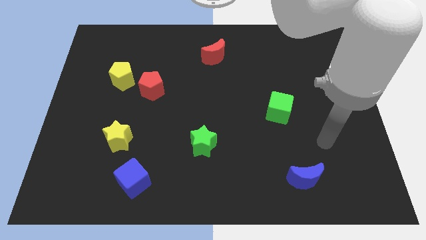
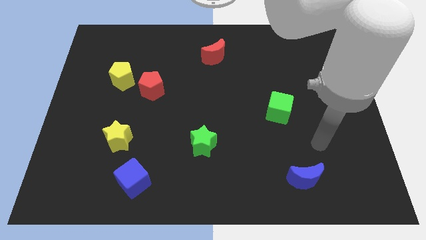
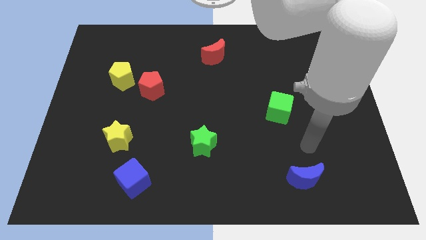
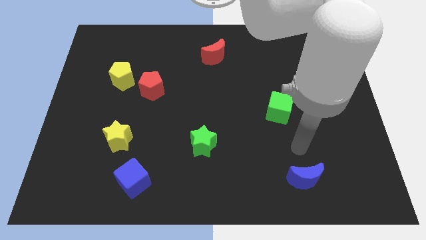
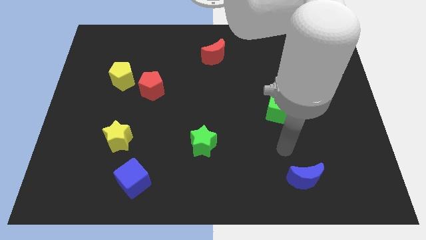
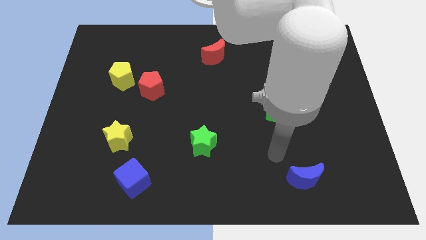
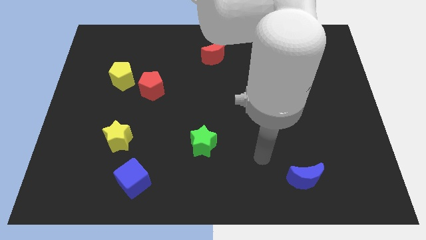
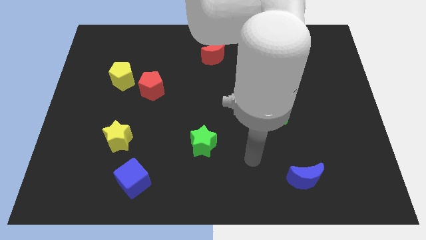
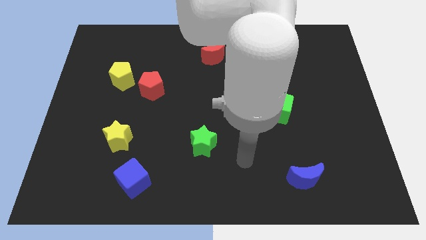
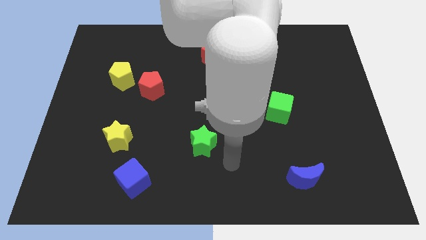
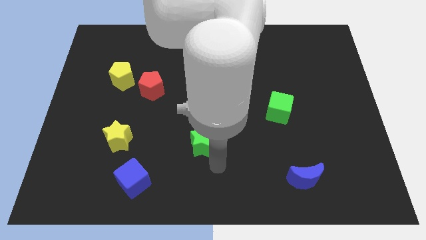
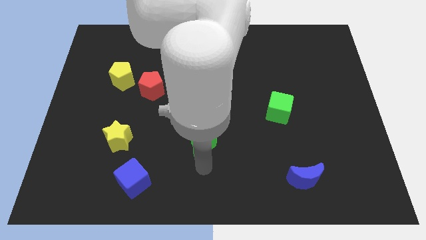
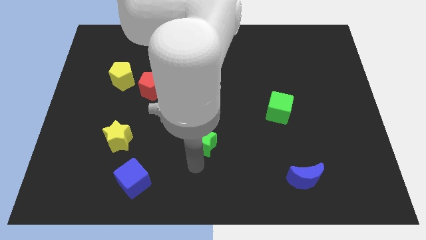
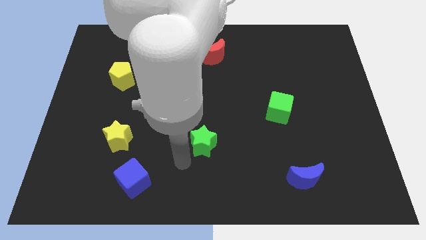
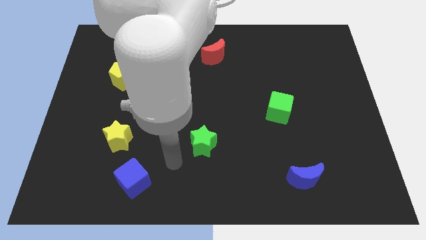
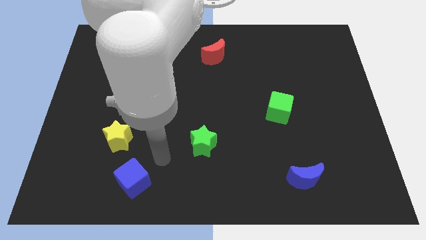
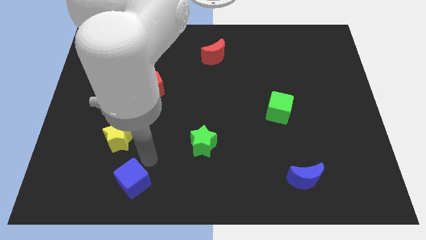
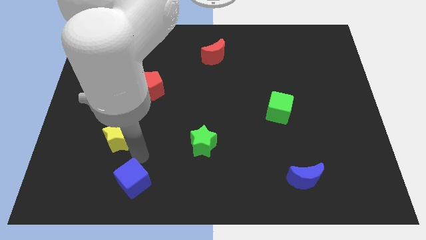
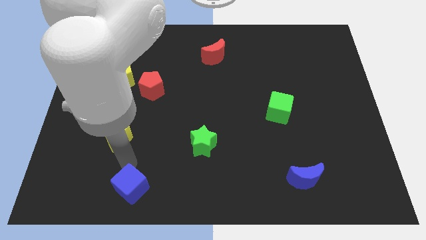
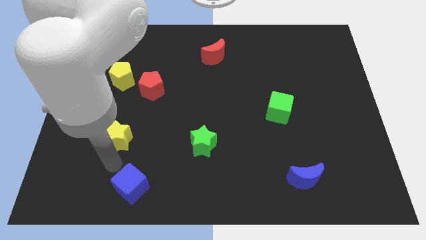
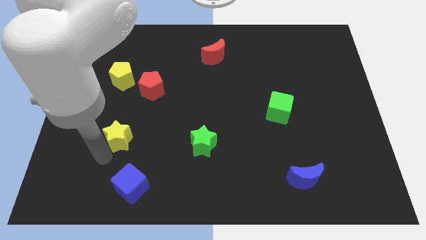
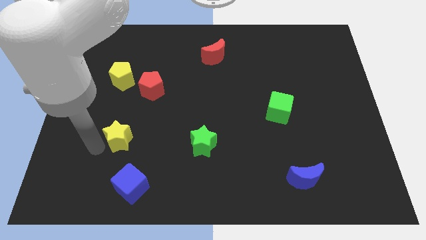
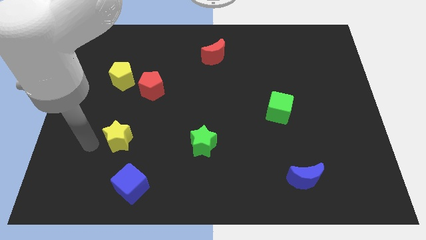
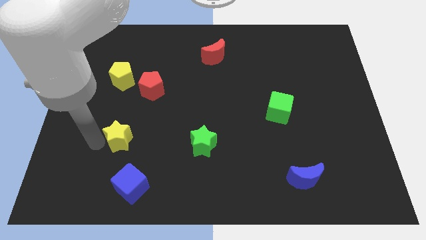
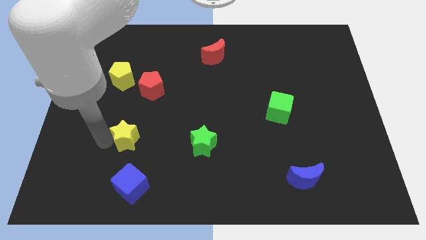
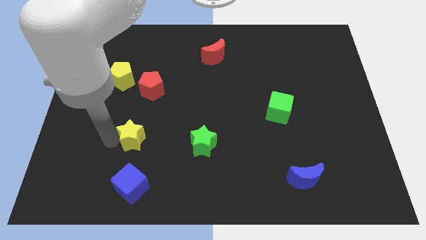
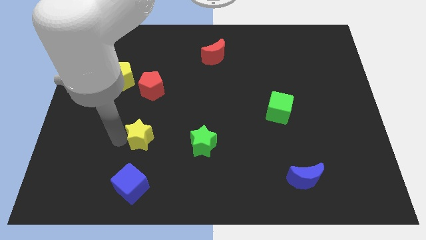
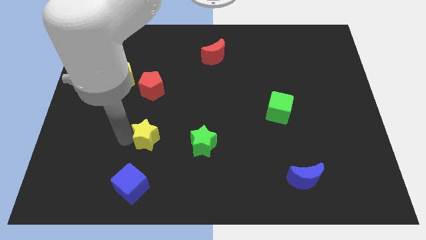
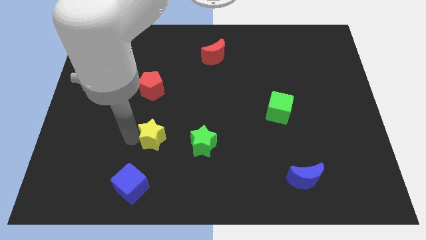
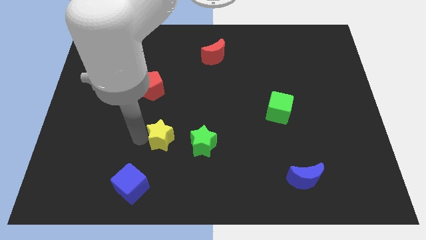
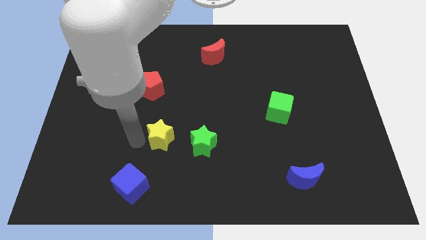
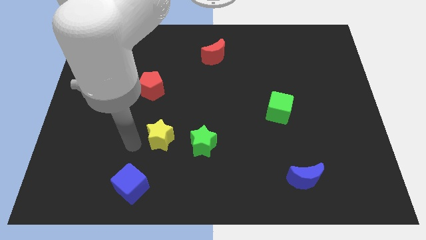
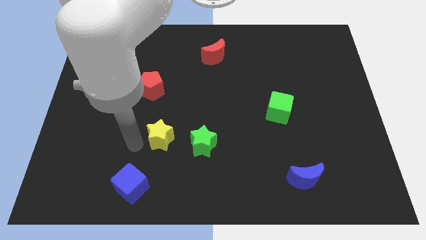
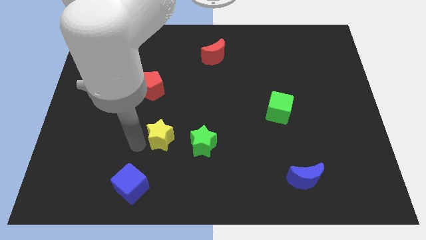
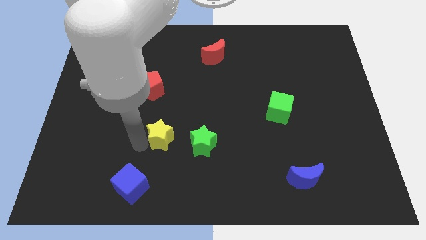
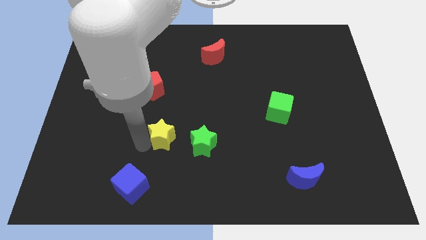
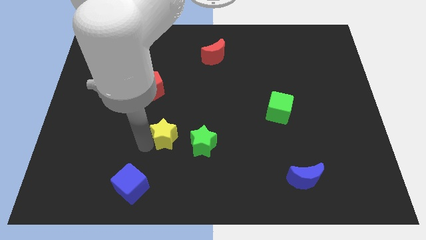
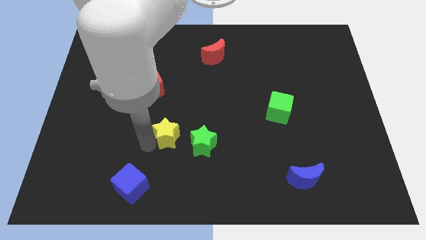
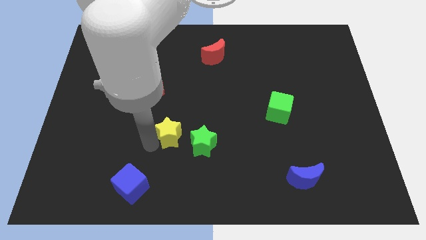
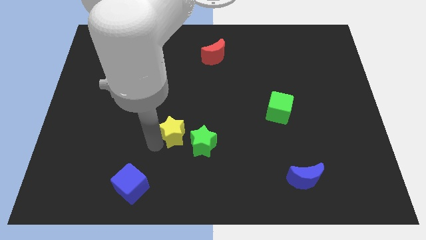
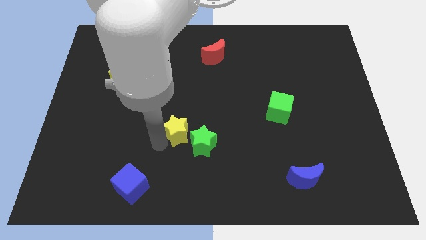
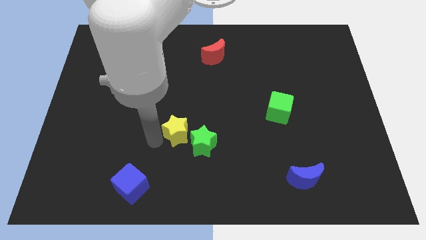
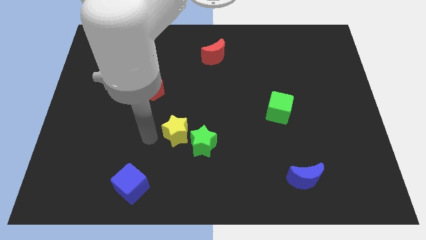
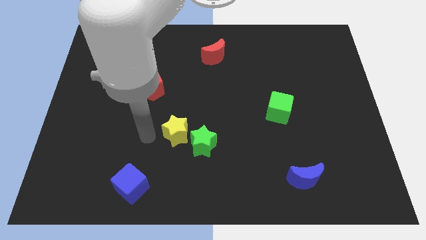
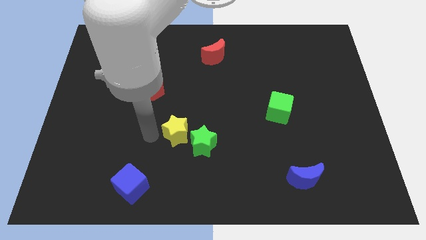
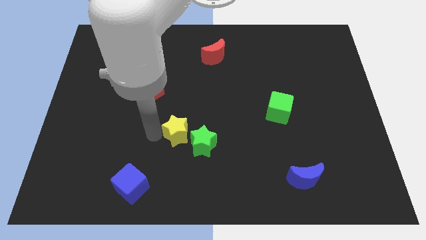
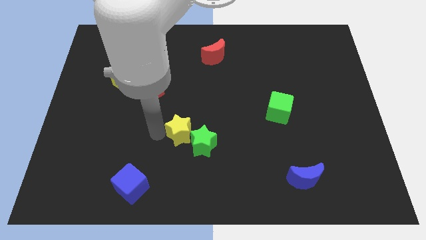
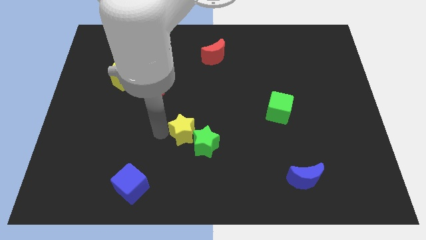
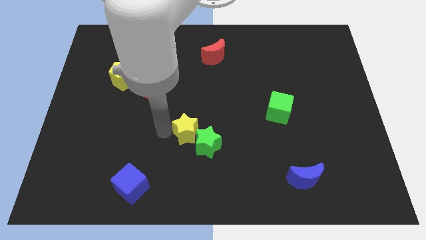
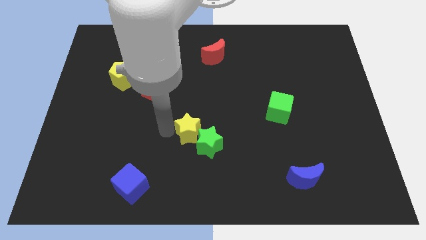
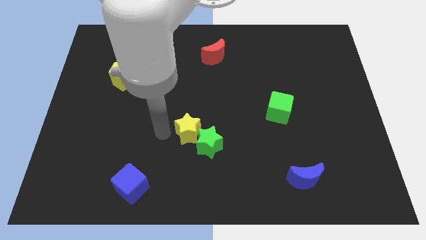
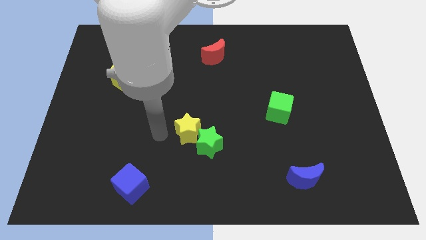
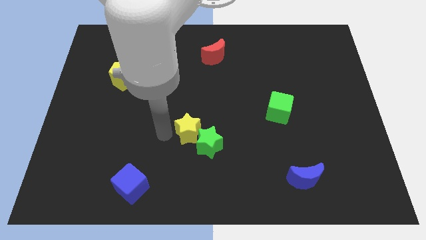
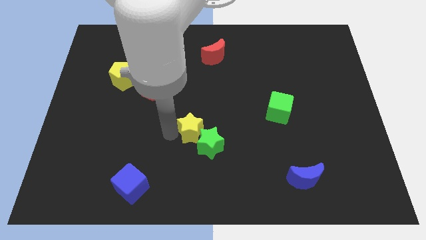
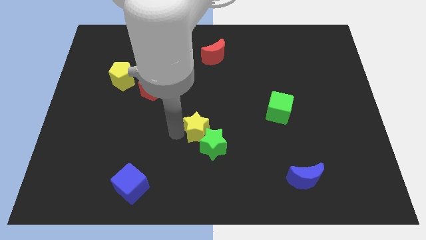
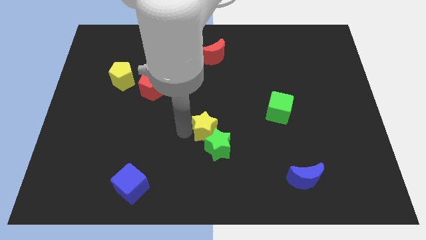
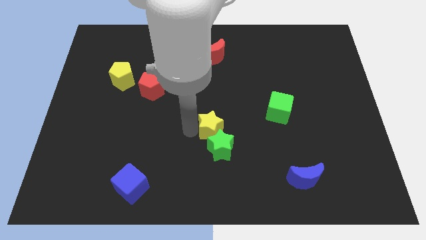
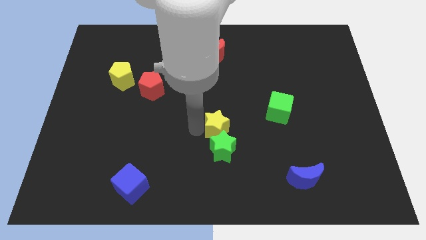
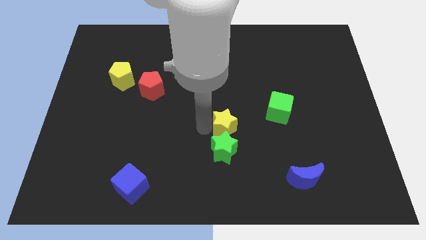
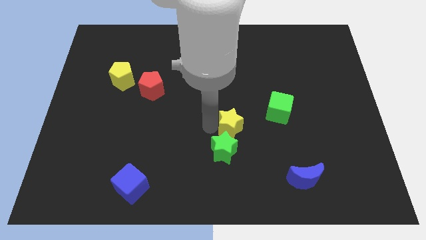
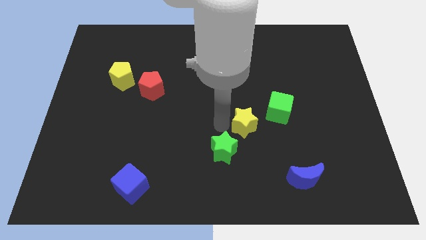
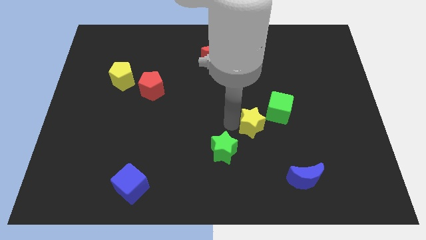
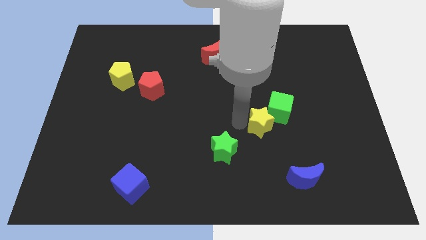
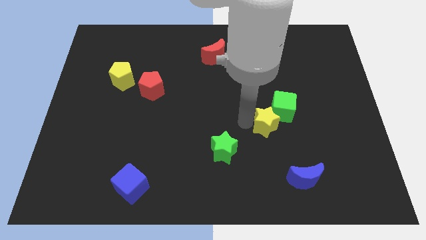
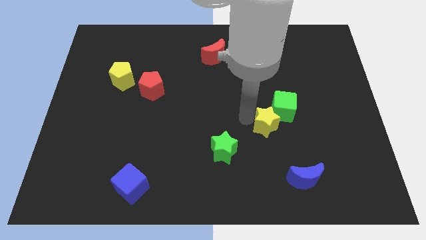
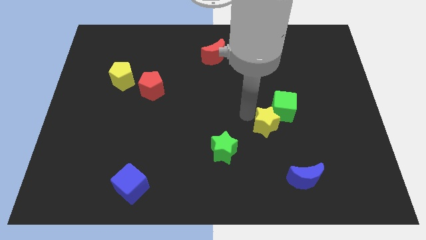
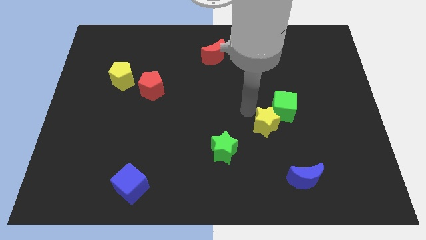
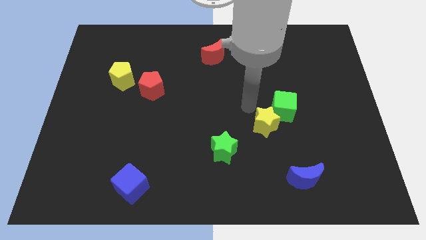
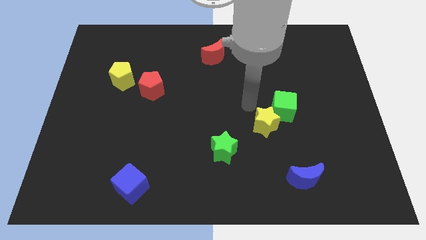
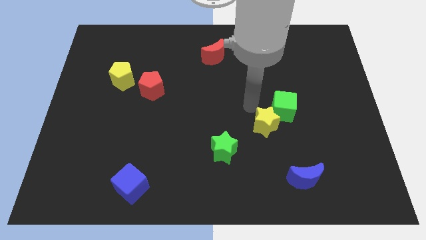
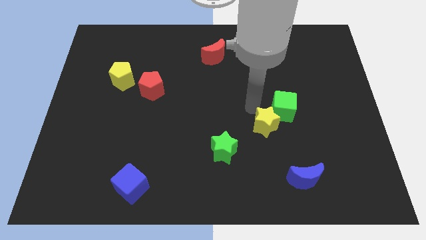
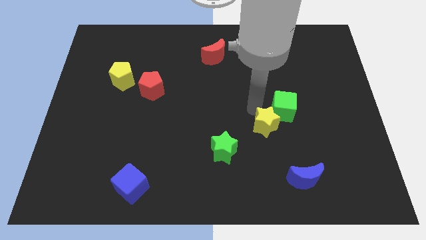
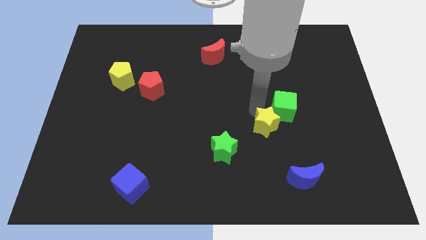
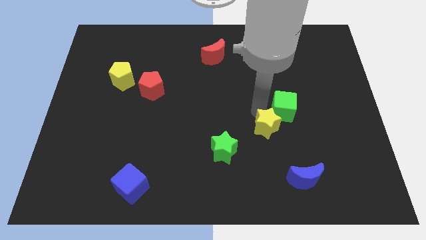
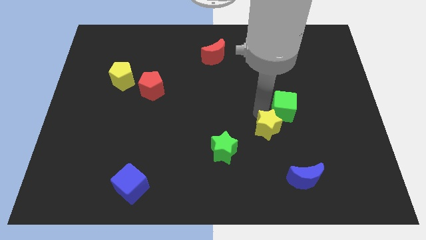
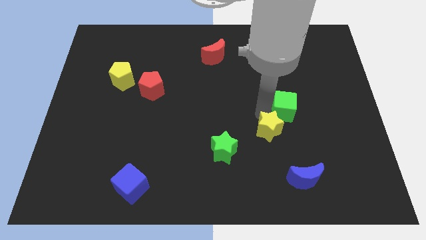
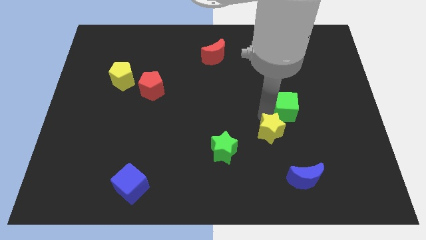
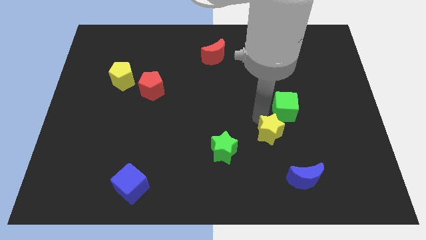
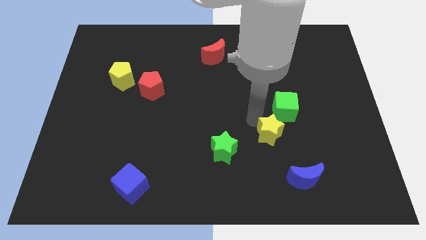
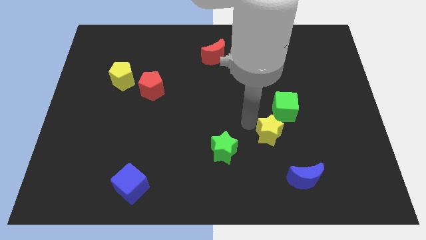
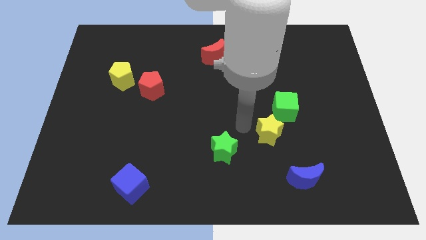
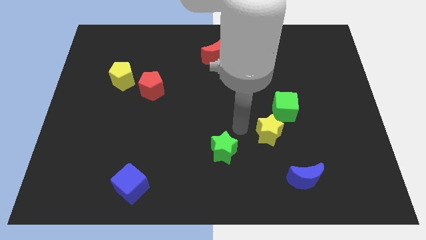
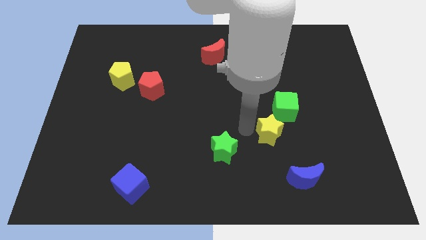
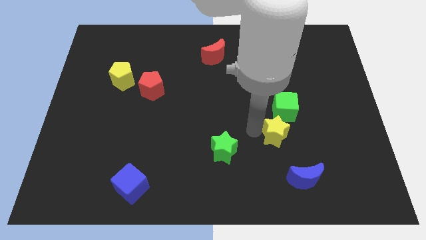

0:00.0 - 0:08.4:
push the yellow star to the top side of the blue moon
